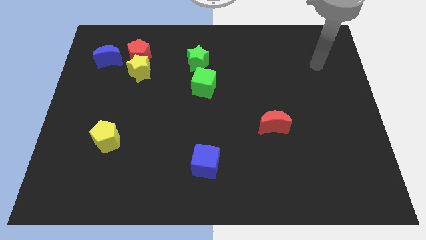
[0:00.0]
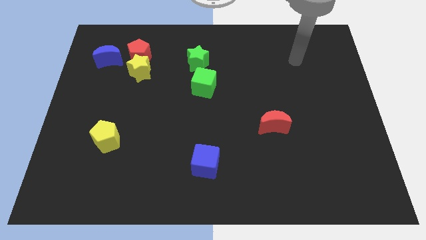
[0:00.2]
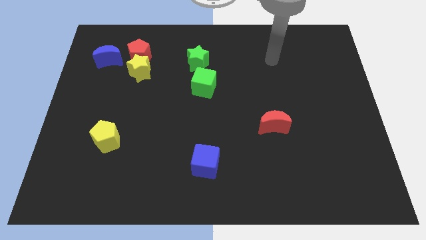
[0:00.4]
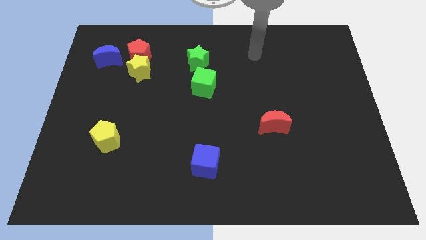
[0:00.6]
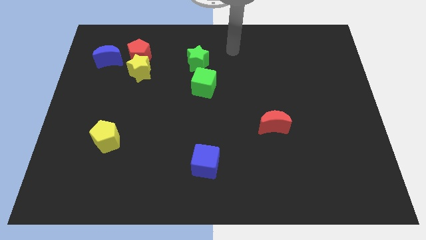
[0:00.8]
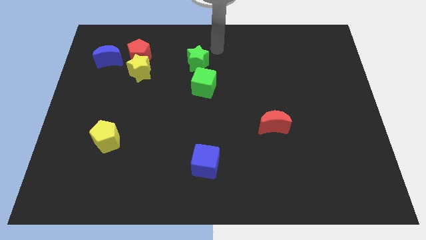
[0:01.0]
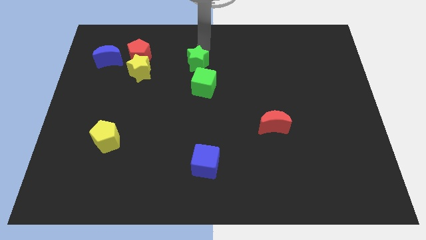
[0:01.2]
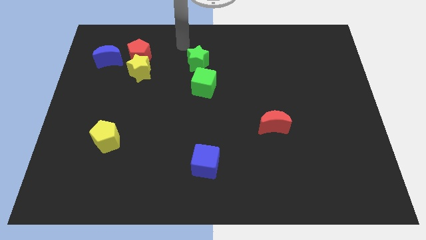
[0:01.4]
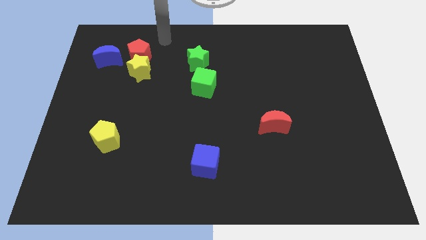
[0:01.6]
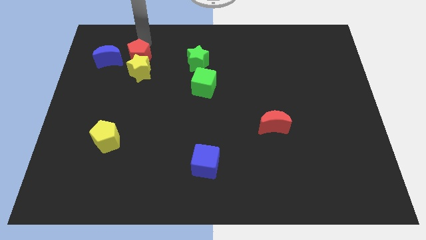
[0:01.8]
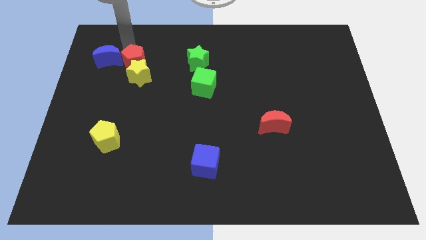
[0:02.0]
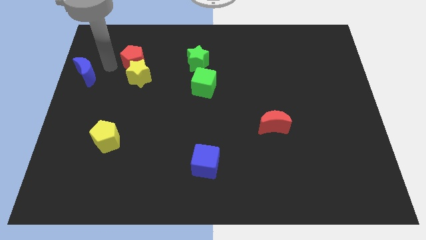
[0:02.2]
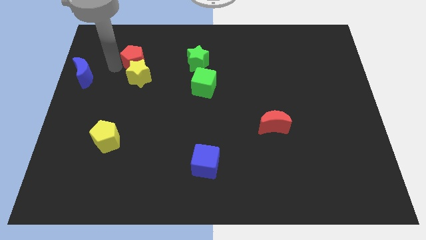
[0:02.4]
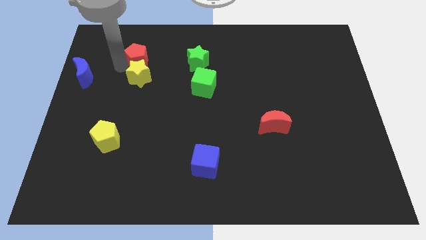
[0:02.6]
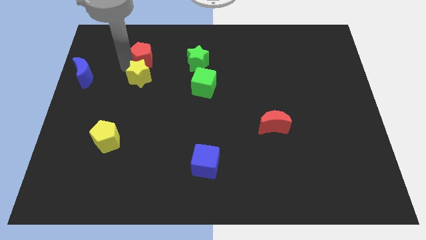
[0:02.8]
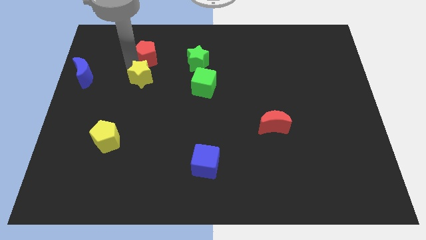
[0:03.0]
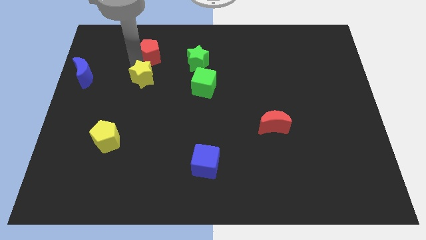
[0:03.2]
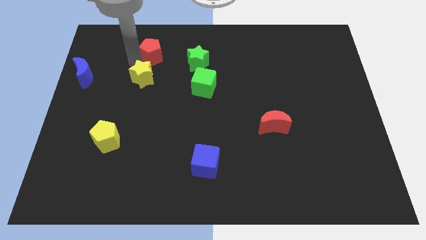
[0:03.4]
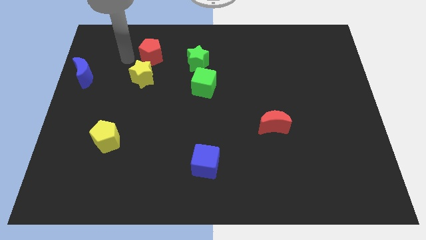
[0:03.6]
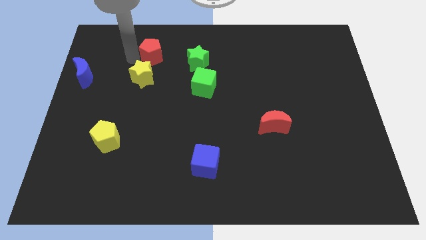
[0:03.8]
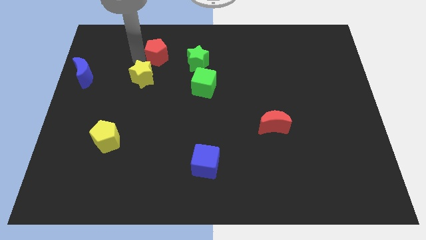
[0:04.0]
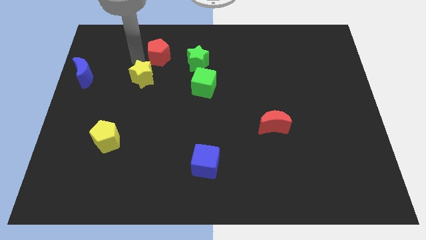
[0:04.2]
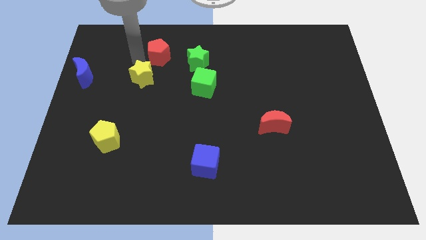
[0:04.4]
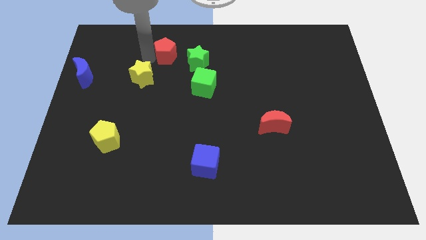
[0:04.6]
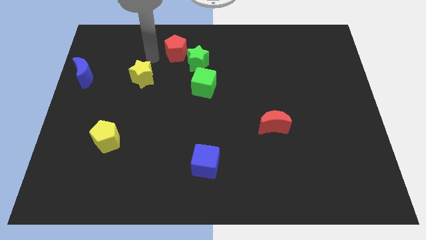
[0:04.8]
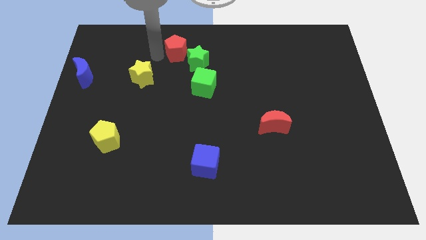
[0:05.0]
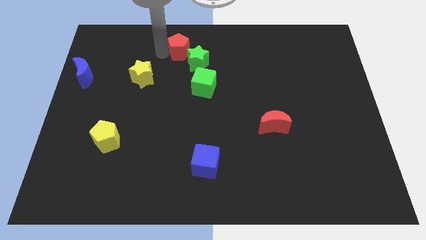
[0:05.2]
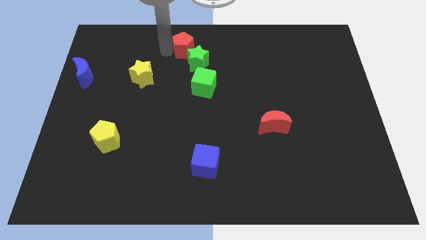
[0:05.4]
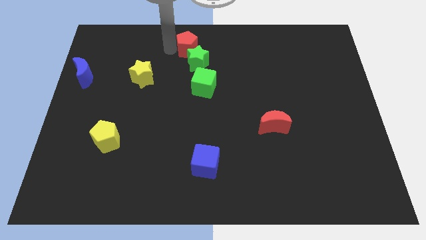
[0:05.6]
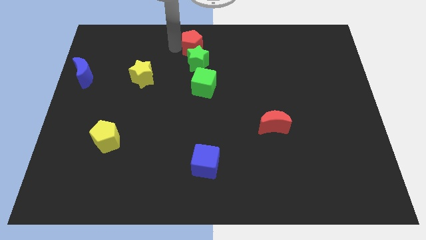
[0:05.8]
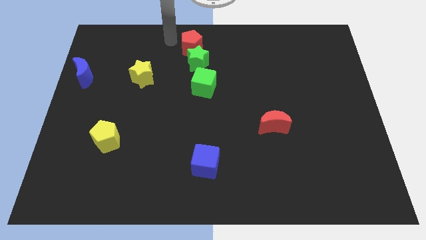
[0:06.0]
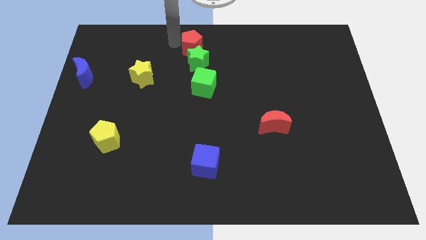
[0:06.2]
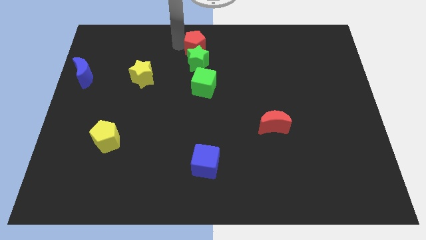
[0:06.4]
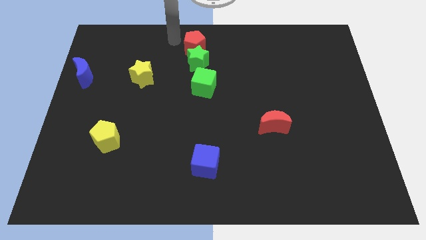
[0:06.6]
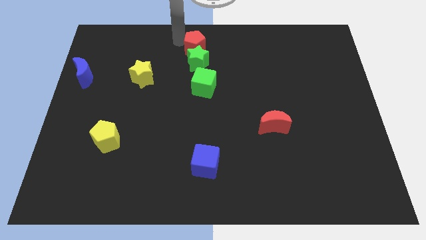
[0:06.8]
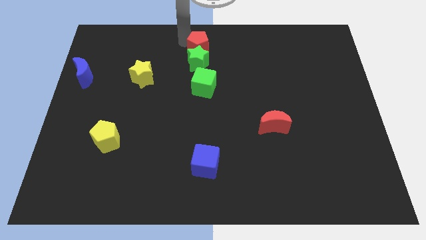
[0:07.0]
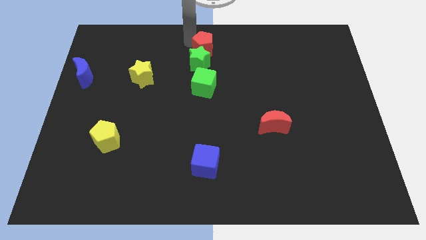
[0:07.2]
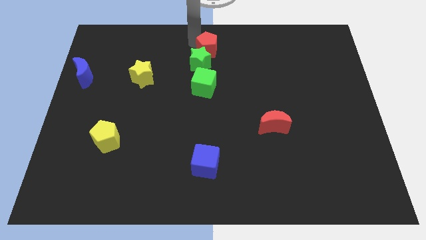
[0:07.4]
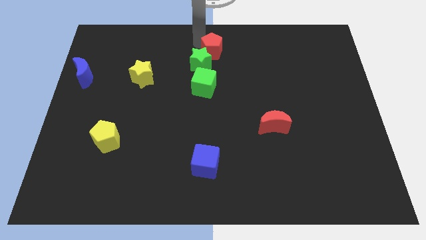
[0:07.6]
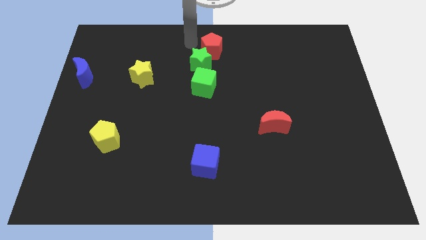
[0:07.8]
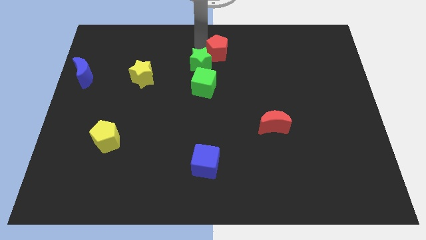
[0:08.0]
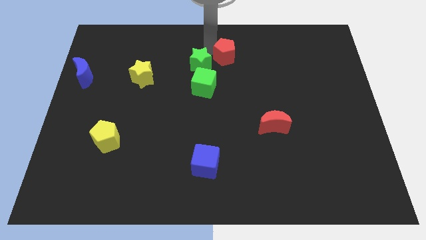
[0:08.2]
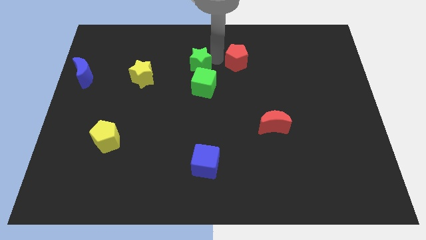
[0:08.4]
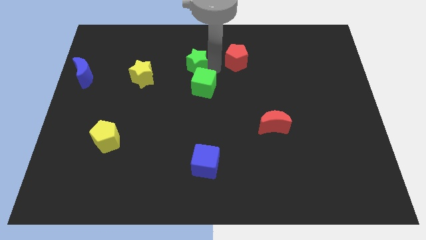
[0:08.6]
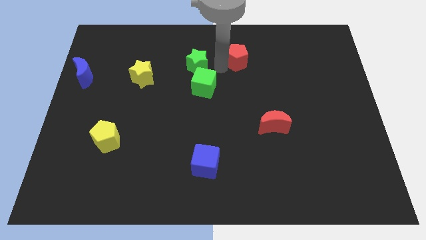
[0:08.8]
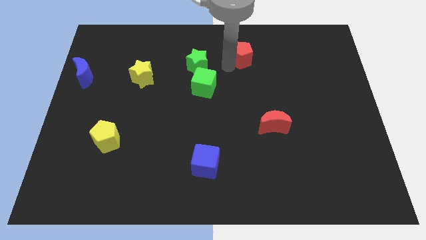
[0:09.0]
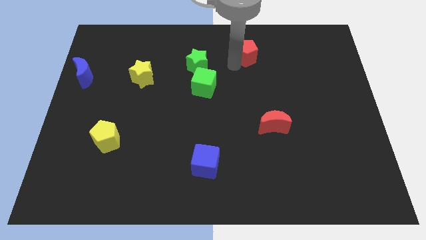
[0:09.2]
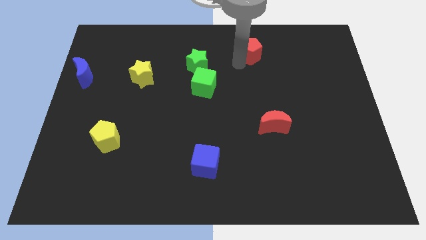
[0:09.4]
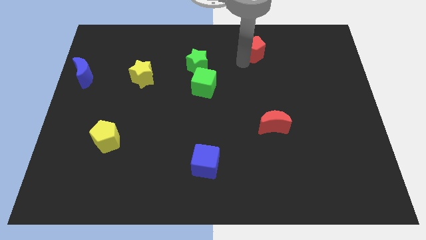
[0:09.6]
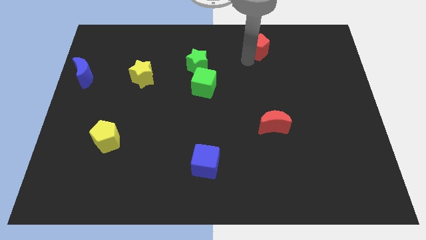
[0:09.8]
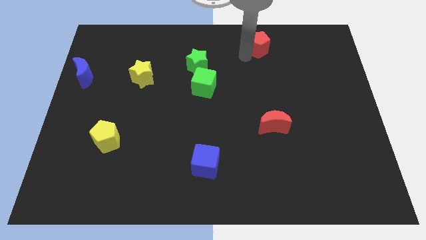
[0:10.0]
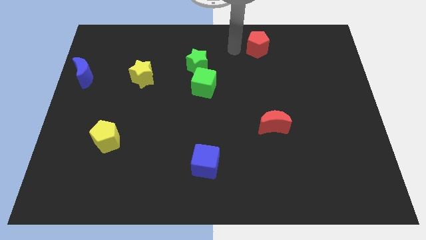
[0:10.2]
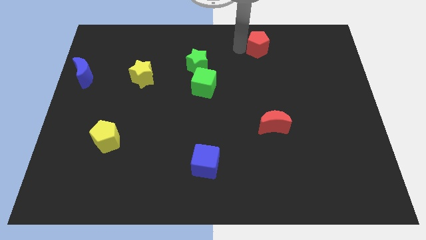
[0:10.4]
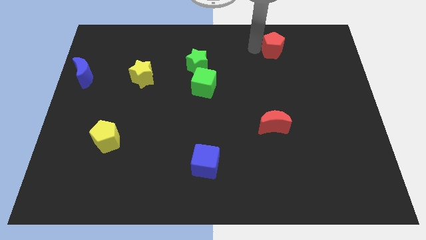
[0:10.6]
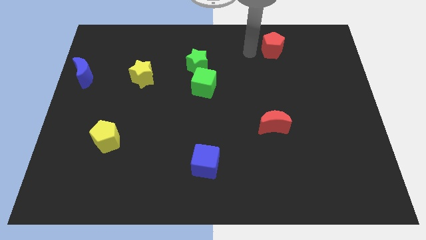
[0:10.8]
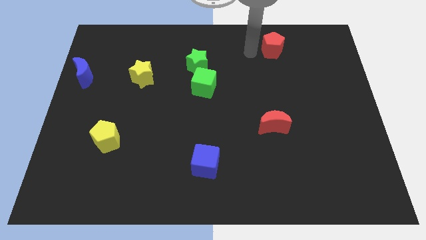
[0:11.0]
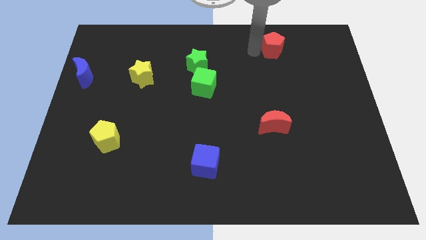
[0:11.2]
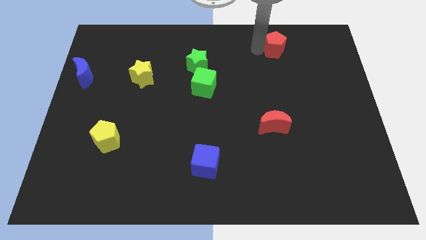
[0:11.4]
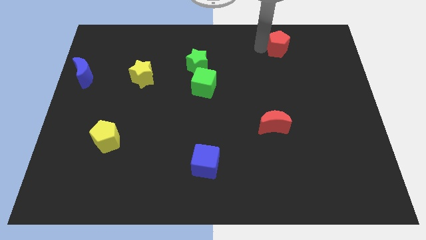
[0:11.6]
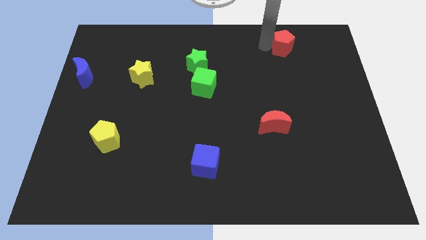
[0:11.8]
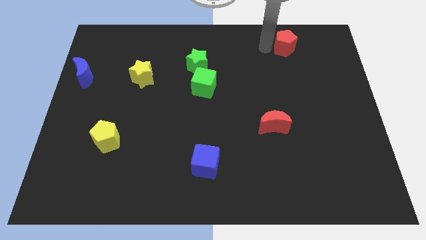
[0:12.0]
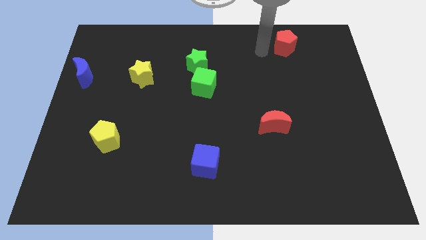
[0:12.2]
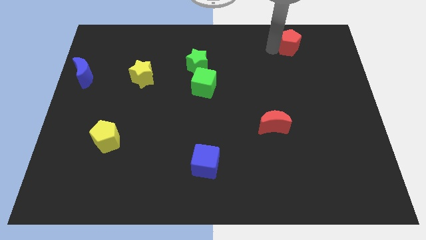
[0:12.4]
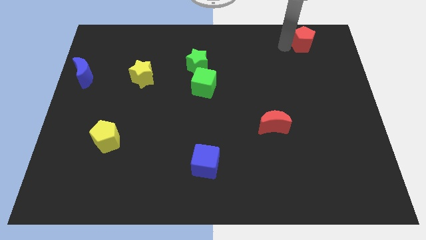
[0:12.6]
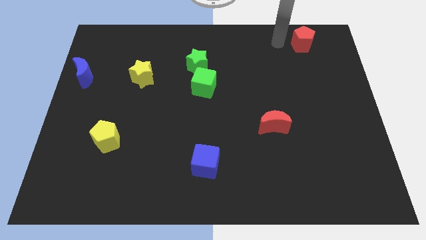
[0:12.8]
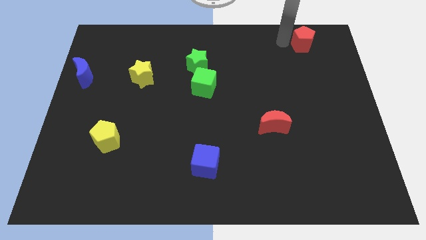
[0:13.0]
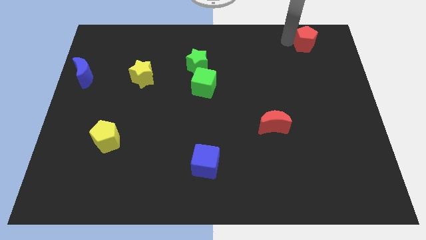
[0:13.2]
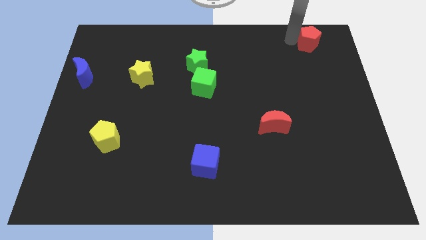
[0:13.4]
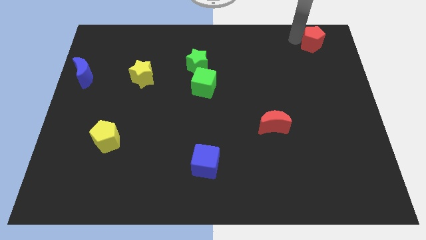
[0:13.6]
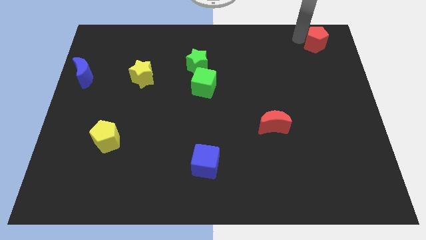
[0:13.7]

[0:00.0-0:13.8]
put the red pentagon to the top right corner
